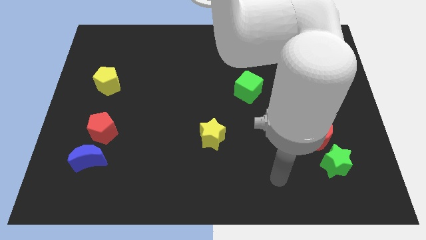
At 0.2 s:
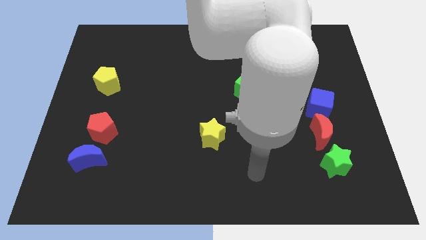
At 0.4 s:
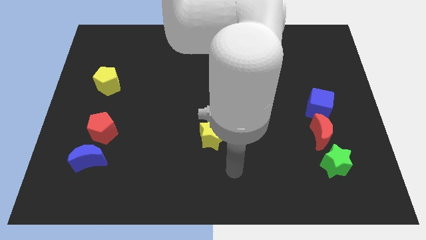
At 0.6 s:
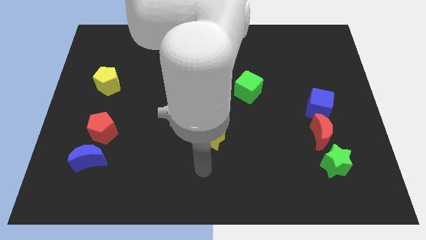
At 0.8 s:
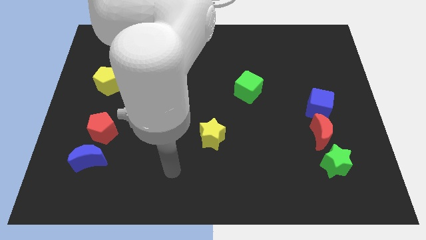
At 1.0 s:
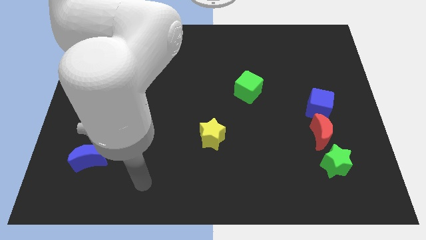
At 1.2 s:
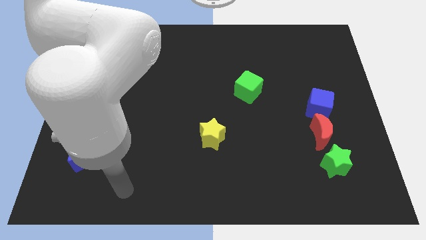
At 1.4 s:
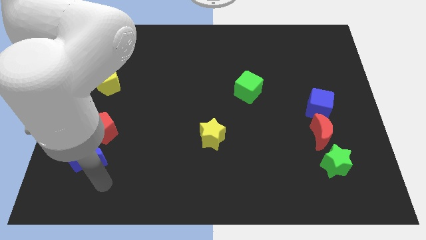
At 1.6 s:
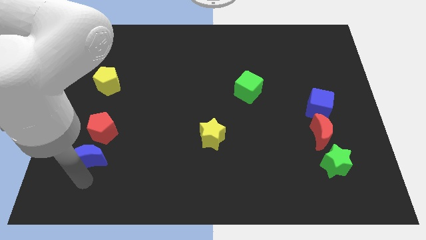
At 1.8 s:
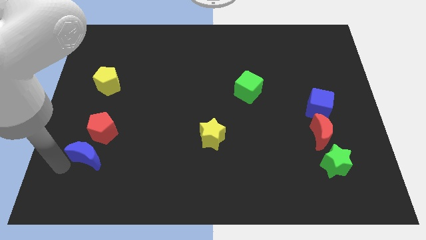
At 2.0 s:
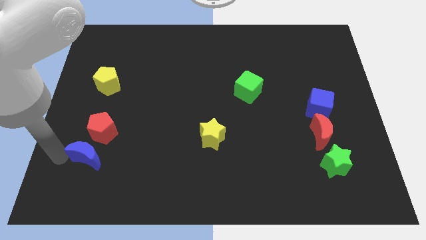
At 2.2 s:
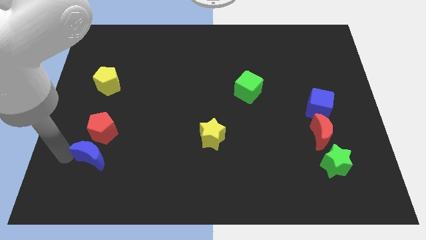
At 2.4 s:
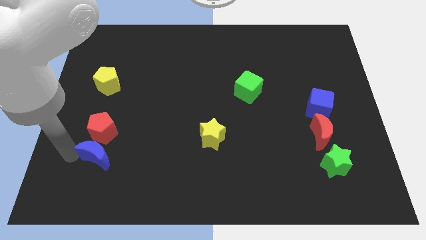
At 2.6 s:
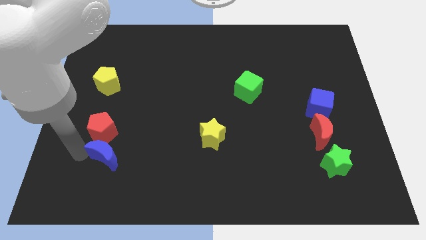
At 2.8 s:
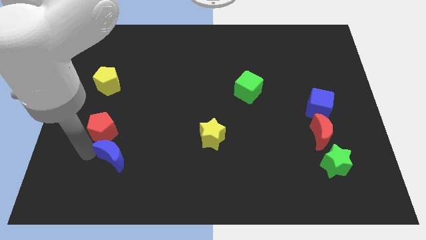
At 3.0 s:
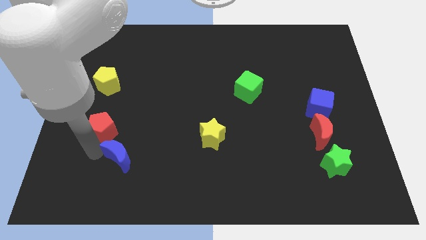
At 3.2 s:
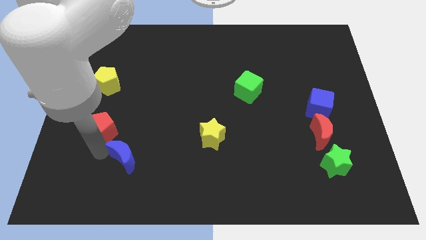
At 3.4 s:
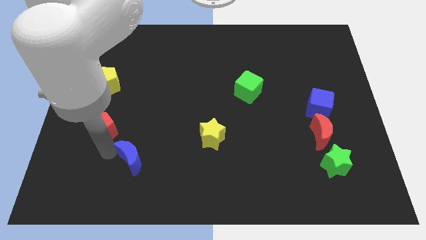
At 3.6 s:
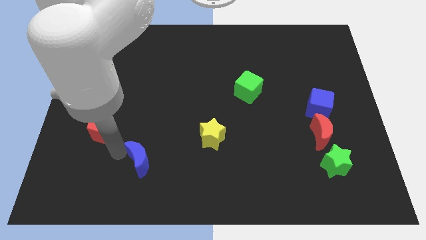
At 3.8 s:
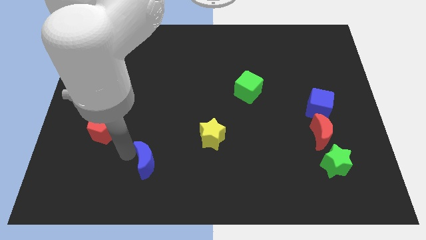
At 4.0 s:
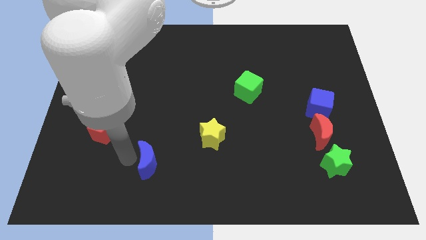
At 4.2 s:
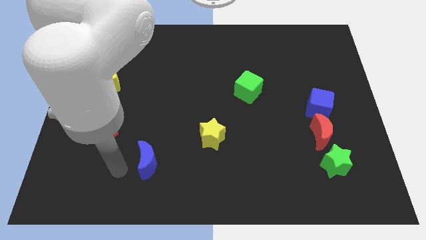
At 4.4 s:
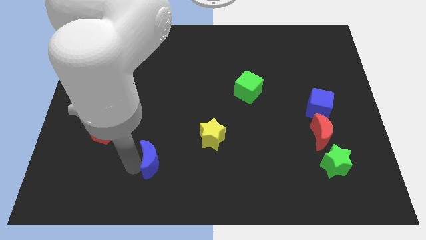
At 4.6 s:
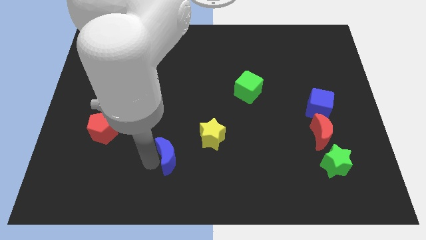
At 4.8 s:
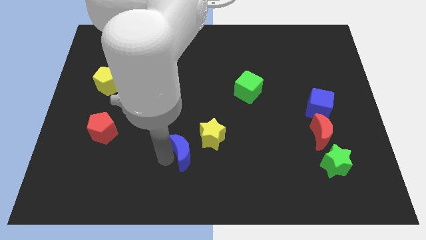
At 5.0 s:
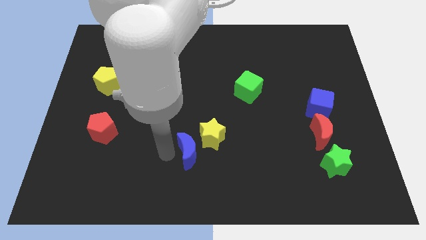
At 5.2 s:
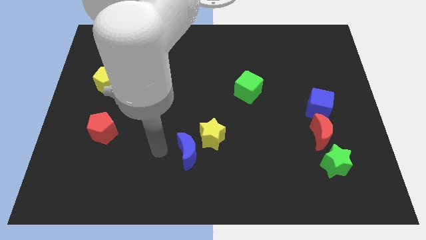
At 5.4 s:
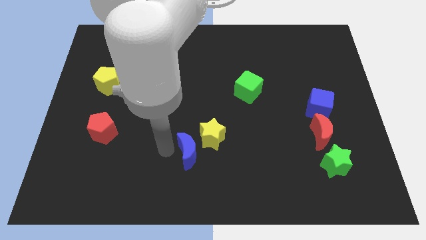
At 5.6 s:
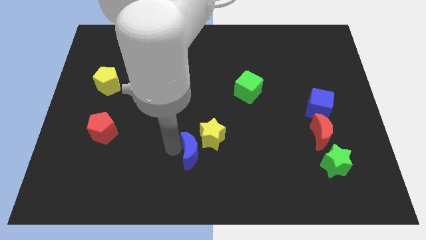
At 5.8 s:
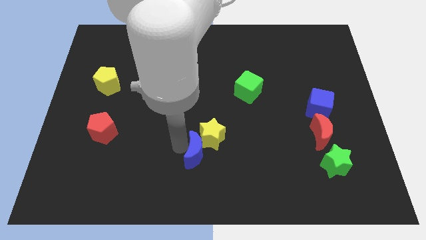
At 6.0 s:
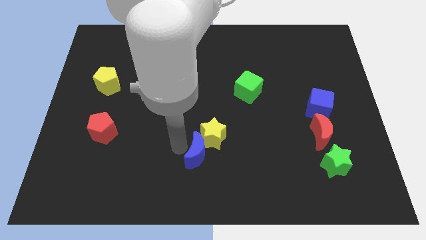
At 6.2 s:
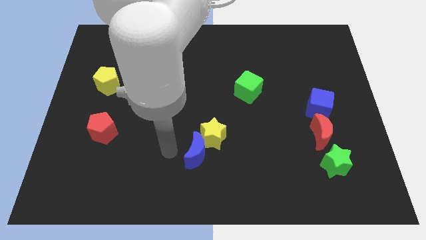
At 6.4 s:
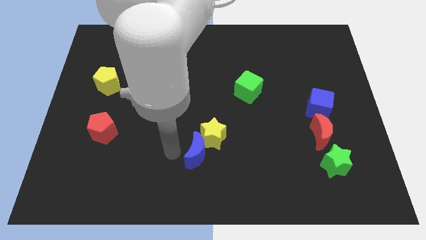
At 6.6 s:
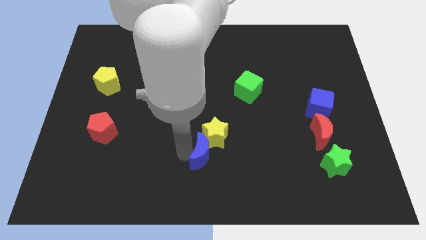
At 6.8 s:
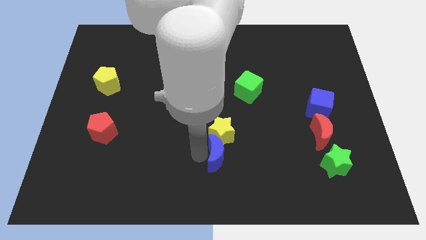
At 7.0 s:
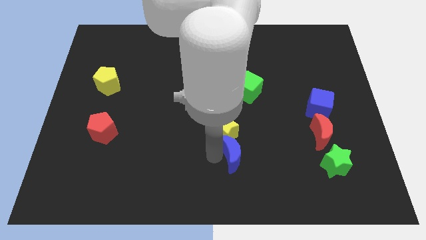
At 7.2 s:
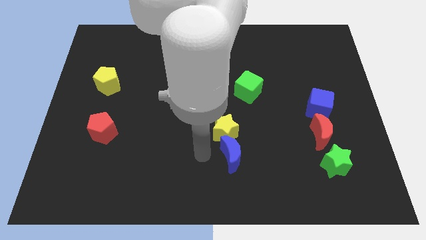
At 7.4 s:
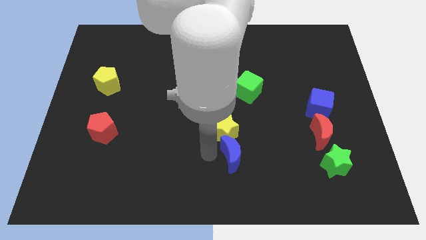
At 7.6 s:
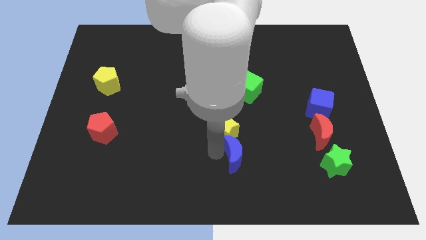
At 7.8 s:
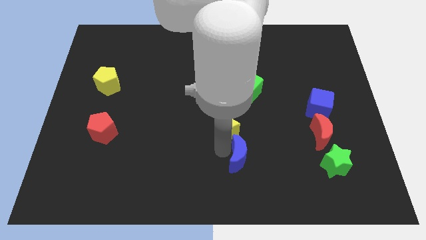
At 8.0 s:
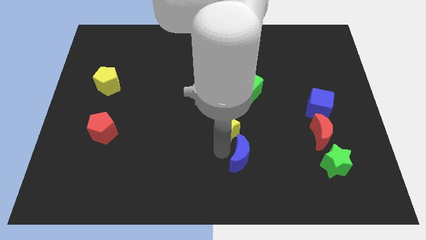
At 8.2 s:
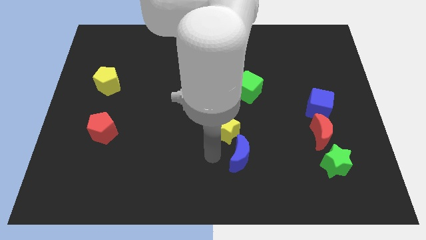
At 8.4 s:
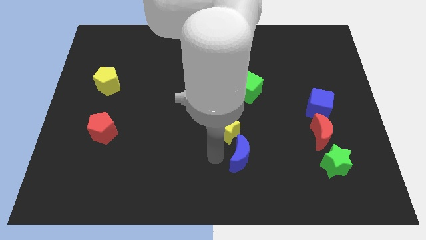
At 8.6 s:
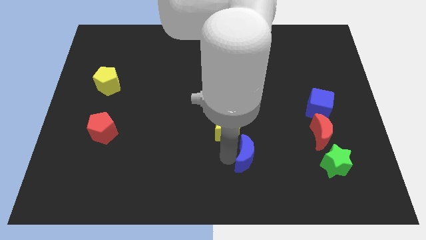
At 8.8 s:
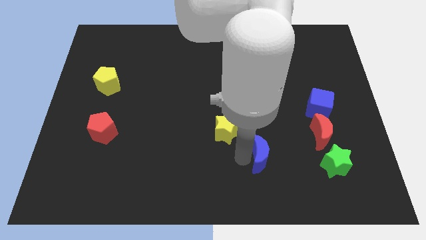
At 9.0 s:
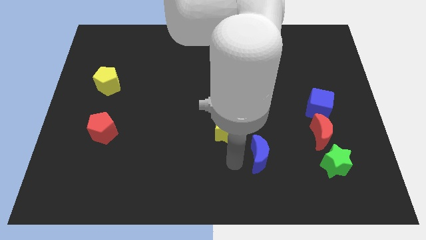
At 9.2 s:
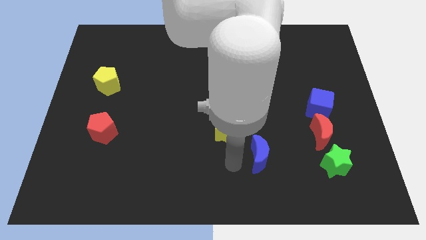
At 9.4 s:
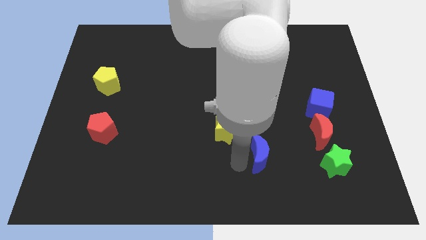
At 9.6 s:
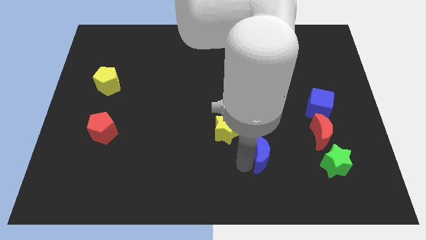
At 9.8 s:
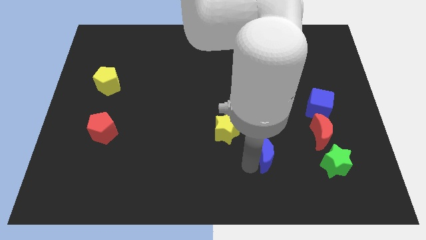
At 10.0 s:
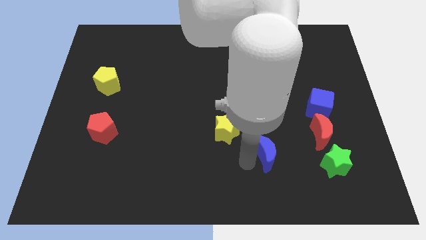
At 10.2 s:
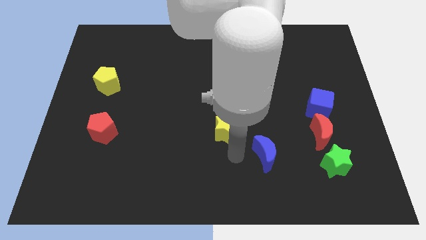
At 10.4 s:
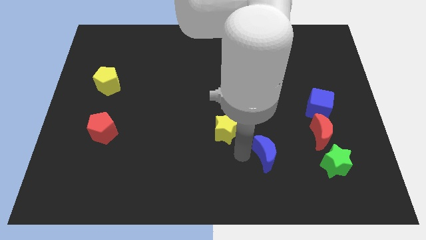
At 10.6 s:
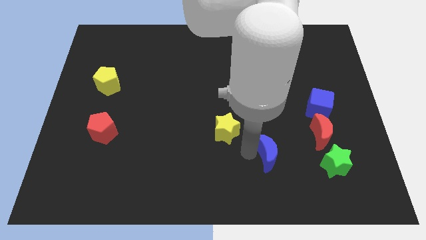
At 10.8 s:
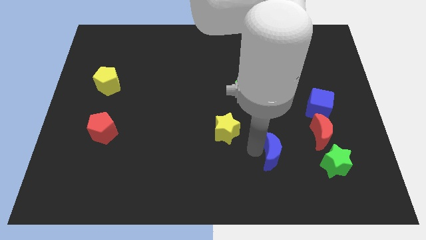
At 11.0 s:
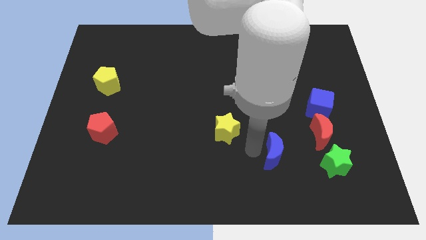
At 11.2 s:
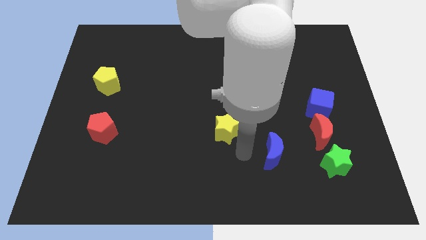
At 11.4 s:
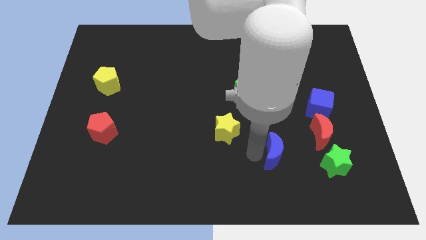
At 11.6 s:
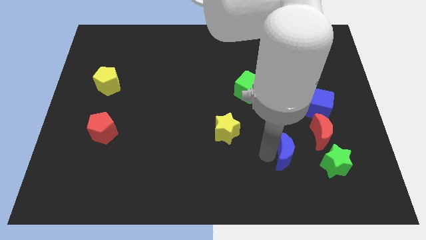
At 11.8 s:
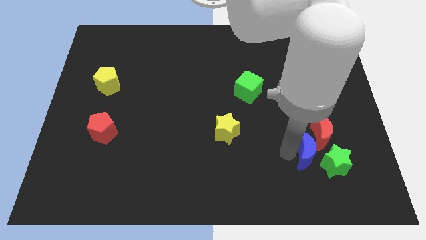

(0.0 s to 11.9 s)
slide the blue moon to the green star

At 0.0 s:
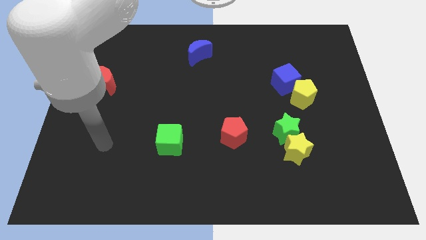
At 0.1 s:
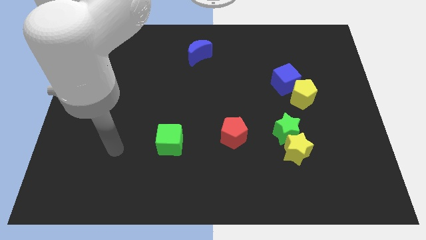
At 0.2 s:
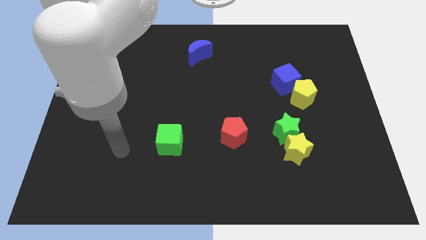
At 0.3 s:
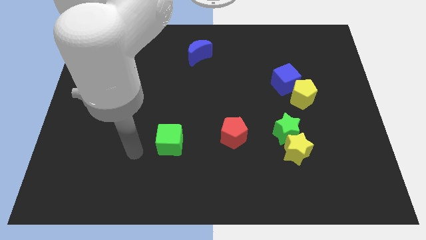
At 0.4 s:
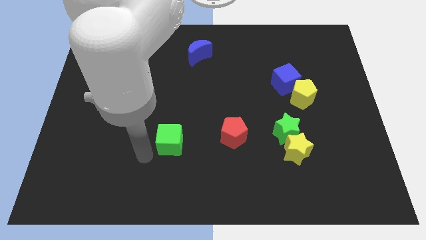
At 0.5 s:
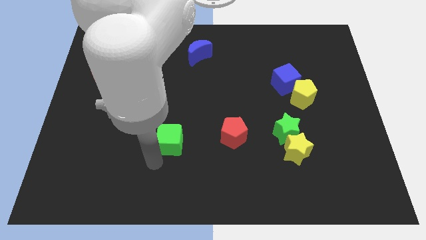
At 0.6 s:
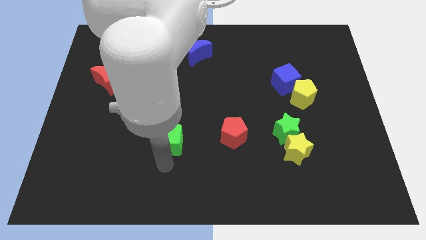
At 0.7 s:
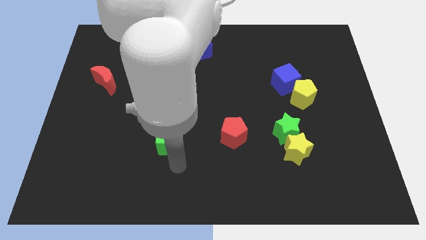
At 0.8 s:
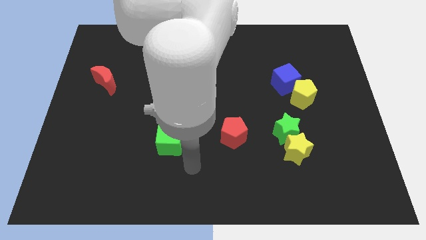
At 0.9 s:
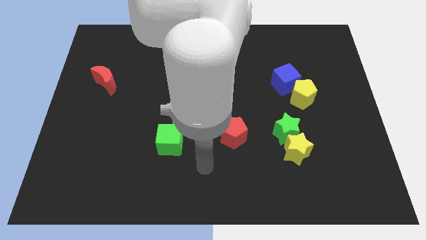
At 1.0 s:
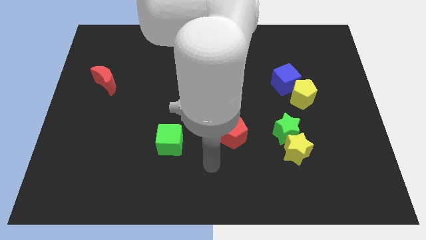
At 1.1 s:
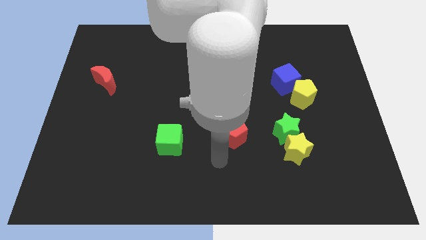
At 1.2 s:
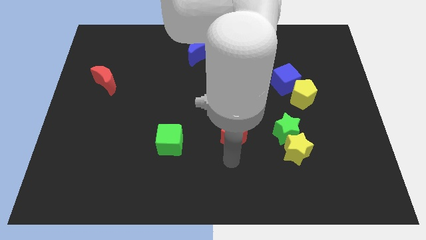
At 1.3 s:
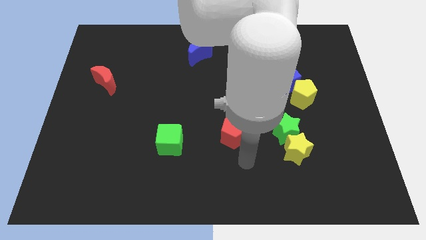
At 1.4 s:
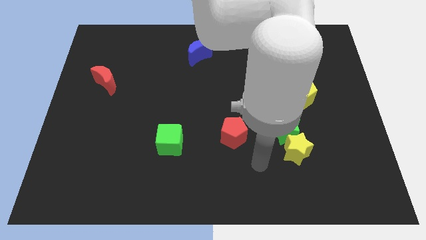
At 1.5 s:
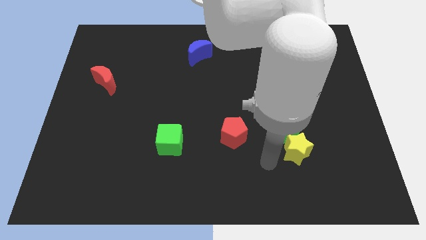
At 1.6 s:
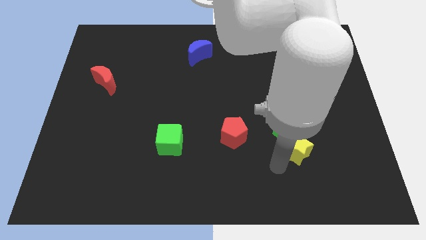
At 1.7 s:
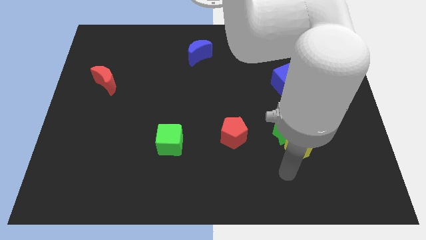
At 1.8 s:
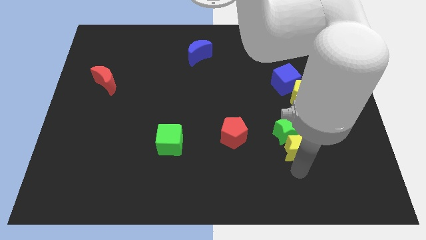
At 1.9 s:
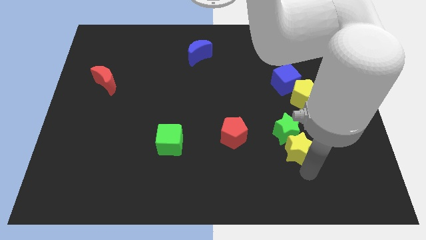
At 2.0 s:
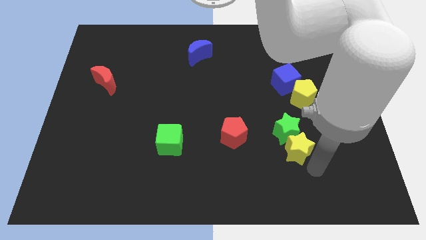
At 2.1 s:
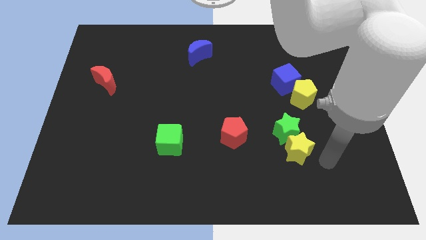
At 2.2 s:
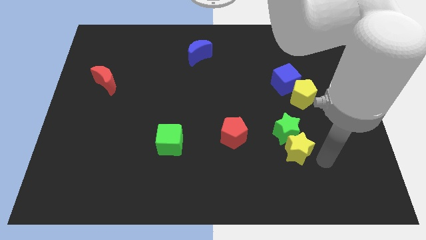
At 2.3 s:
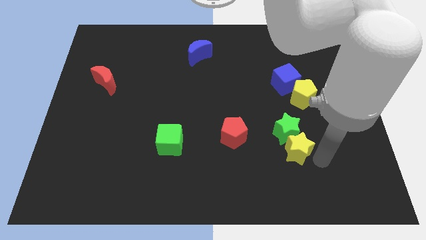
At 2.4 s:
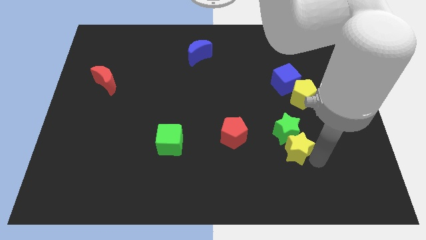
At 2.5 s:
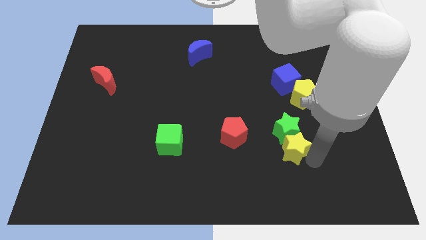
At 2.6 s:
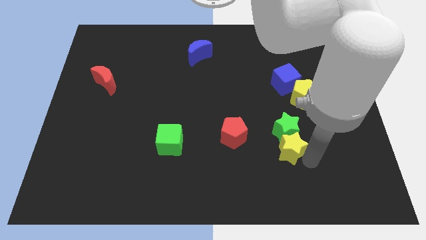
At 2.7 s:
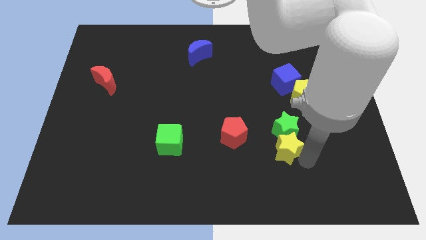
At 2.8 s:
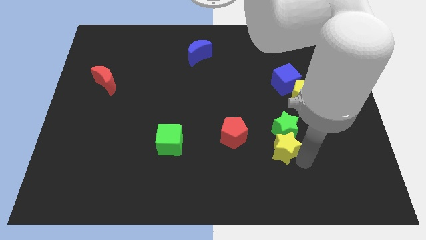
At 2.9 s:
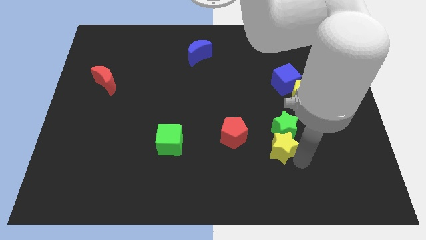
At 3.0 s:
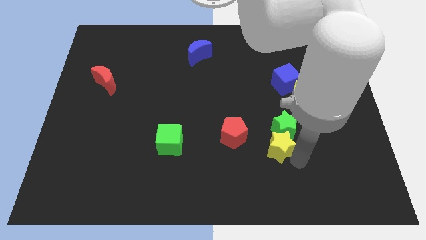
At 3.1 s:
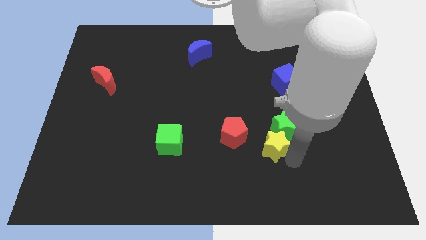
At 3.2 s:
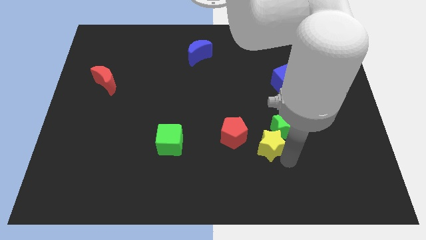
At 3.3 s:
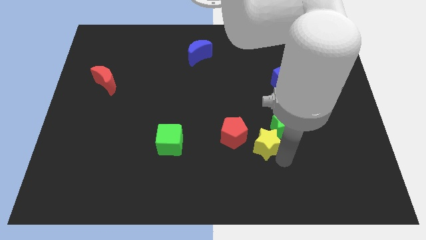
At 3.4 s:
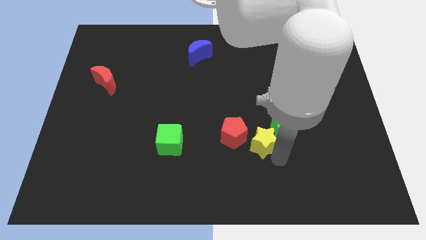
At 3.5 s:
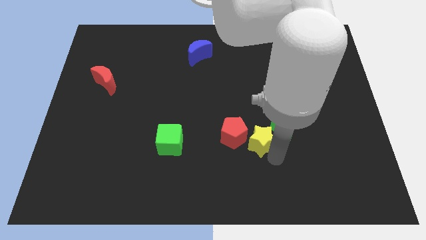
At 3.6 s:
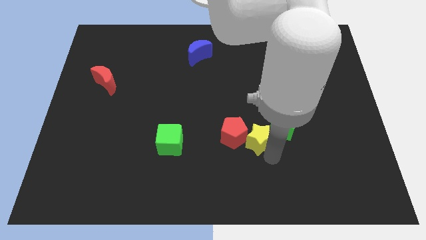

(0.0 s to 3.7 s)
move the yellow star towards the red pentagon
